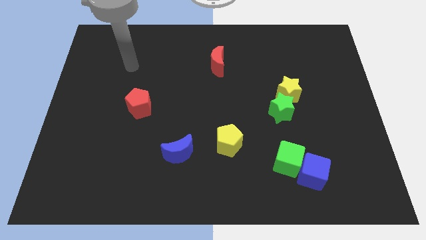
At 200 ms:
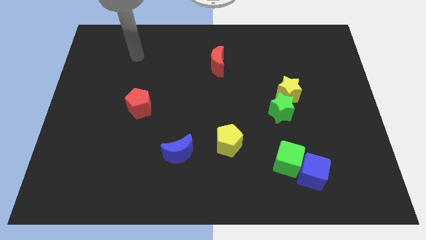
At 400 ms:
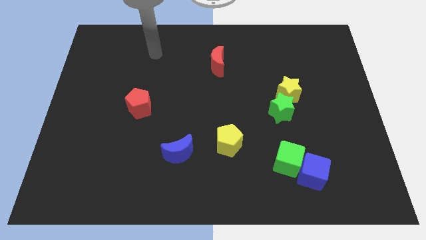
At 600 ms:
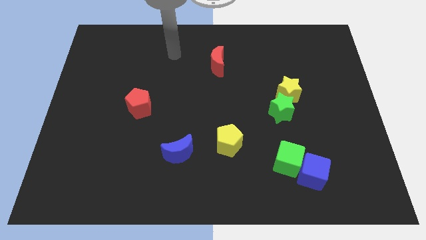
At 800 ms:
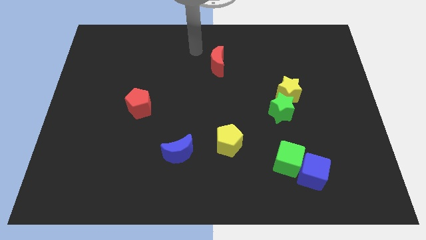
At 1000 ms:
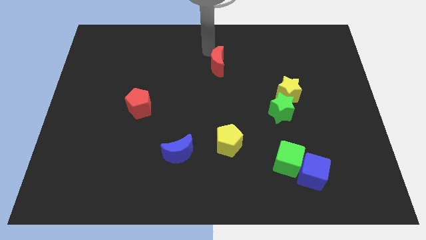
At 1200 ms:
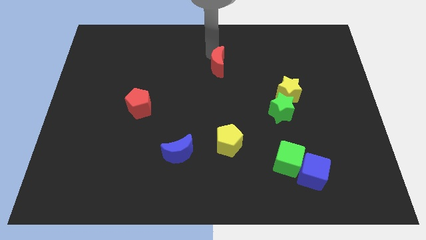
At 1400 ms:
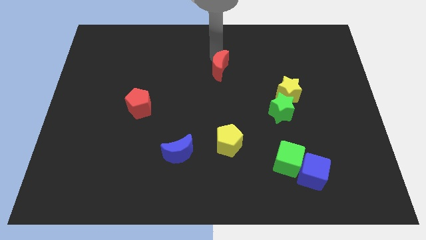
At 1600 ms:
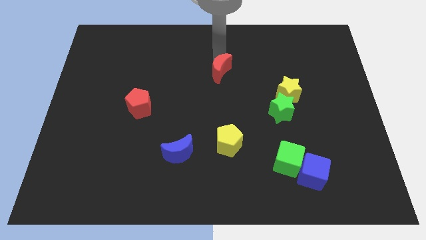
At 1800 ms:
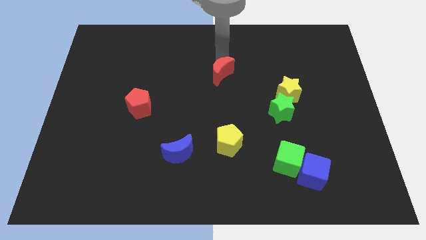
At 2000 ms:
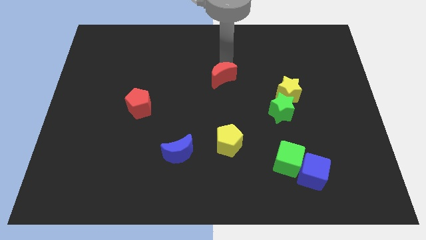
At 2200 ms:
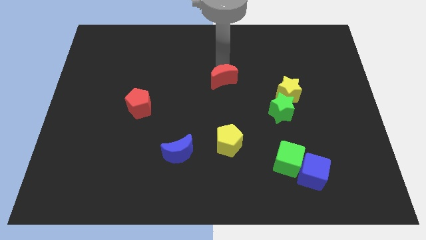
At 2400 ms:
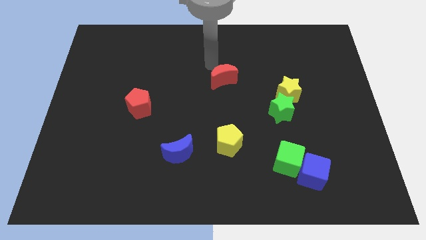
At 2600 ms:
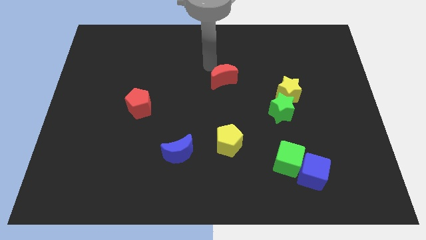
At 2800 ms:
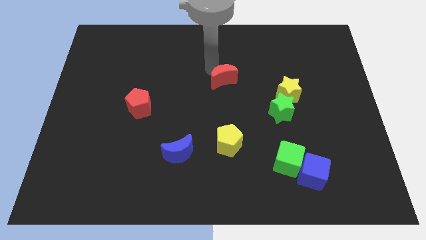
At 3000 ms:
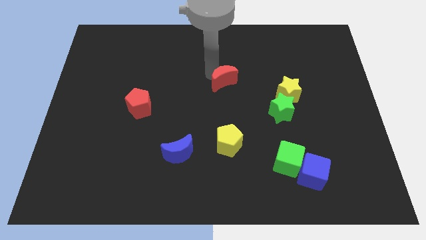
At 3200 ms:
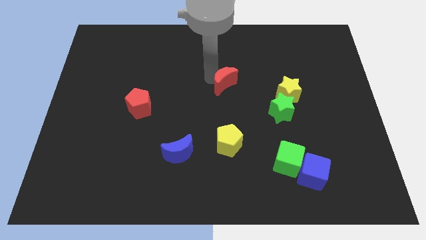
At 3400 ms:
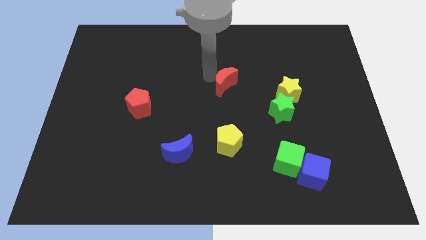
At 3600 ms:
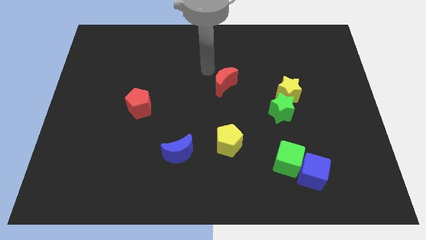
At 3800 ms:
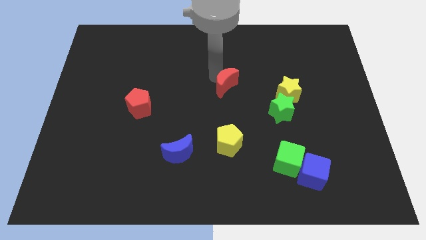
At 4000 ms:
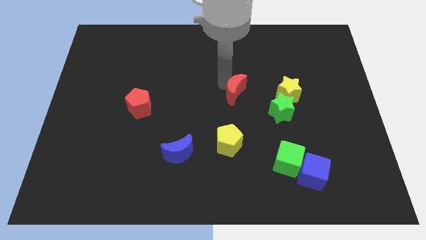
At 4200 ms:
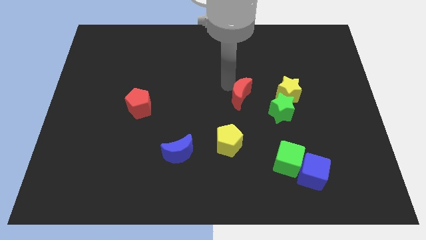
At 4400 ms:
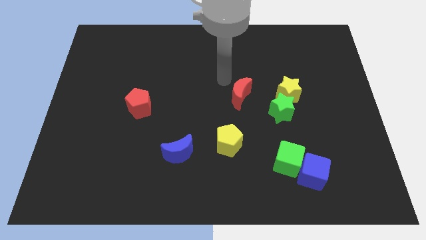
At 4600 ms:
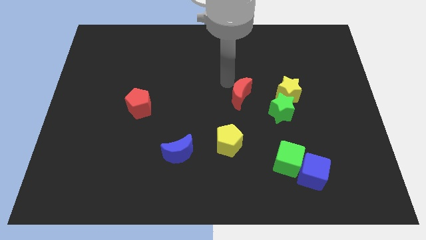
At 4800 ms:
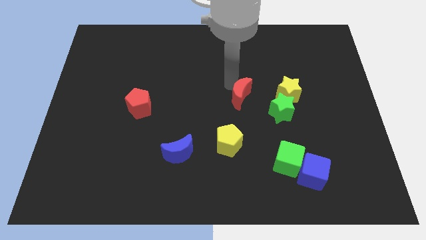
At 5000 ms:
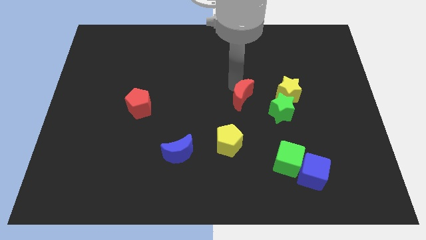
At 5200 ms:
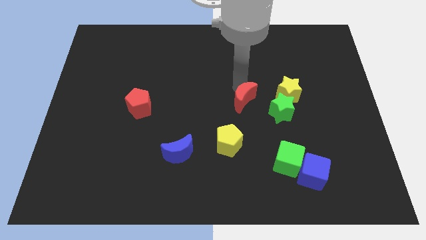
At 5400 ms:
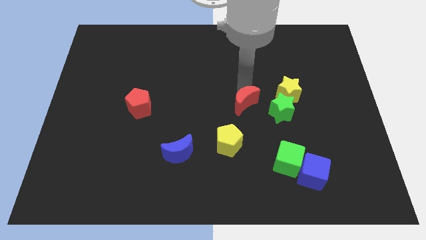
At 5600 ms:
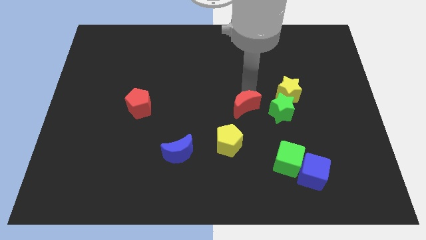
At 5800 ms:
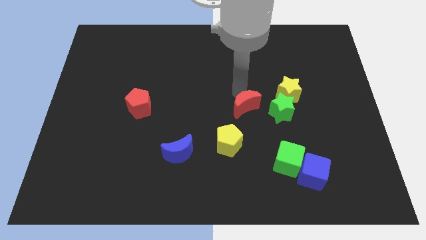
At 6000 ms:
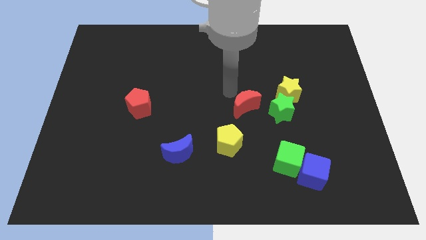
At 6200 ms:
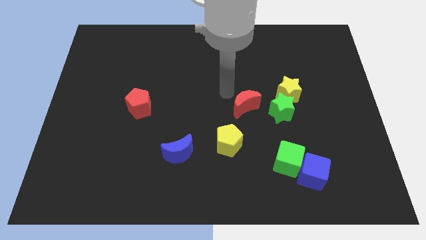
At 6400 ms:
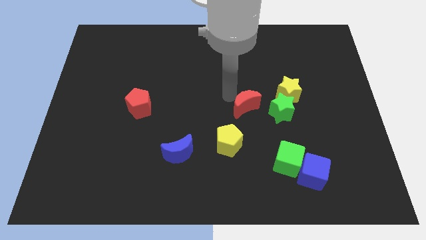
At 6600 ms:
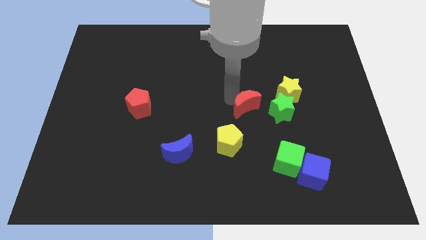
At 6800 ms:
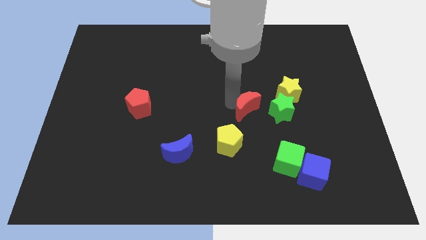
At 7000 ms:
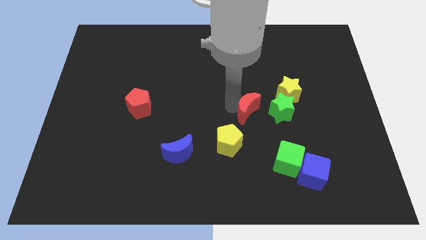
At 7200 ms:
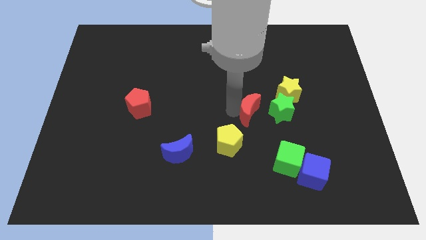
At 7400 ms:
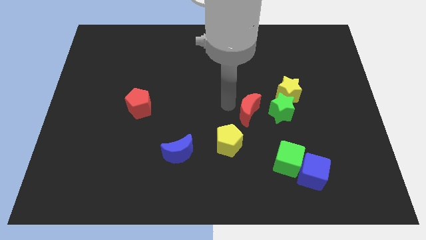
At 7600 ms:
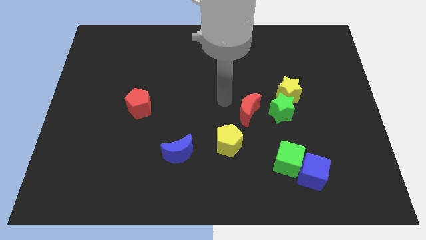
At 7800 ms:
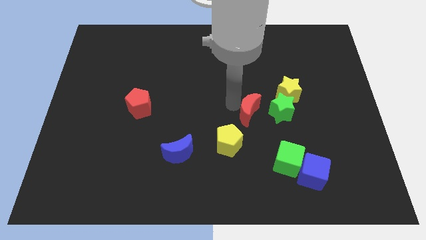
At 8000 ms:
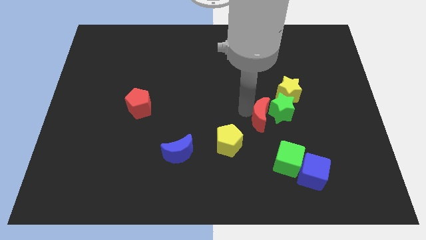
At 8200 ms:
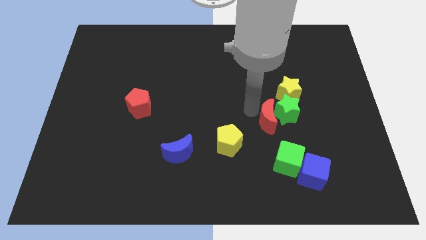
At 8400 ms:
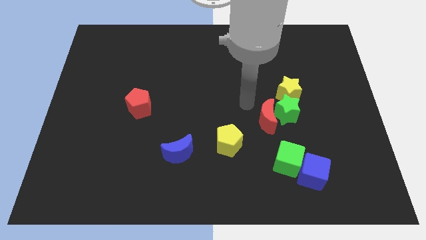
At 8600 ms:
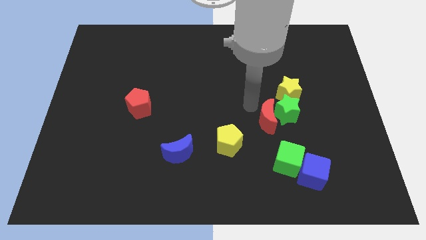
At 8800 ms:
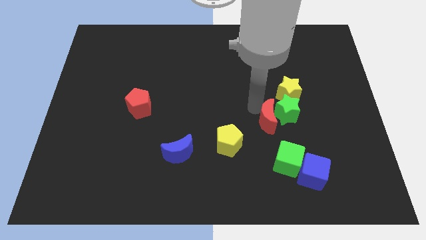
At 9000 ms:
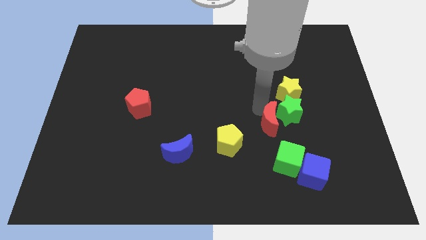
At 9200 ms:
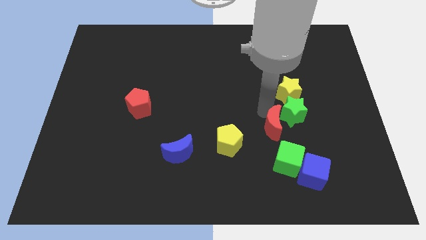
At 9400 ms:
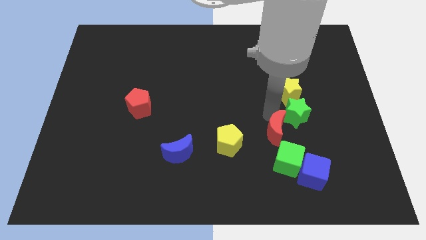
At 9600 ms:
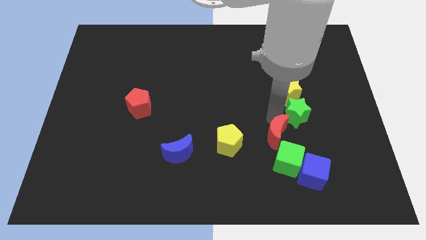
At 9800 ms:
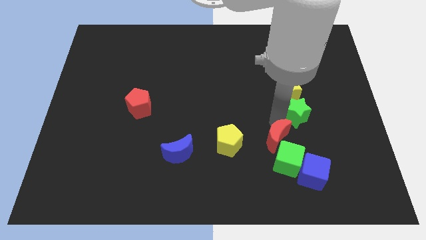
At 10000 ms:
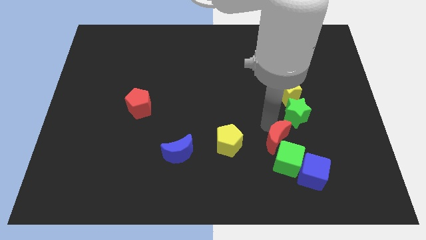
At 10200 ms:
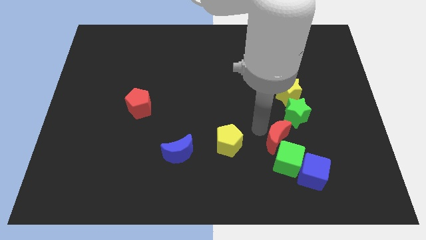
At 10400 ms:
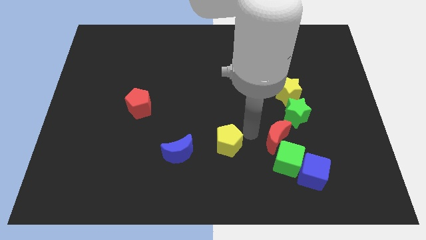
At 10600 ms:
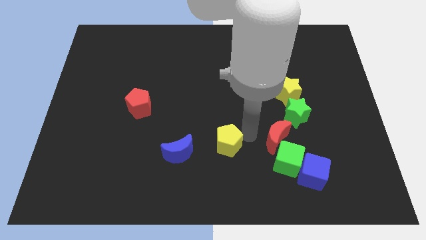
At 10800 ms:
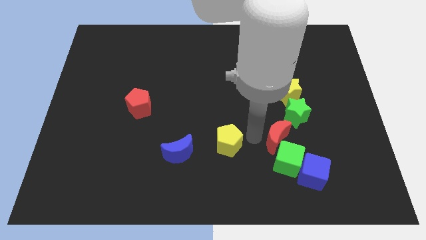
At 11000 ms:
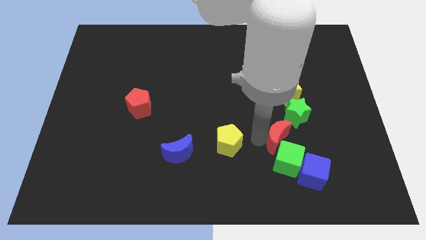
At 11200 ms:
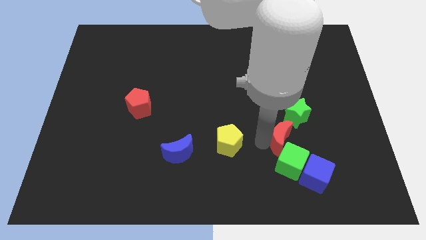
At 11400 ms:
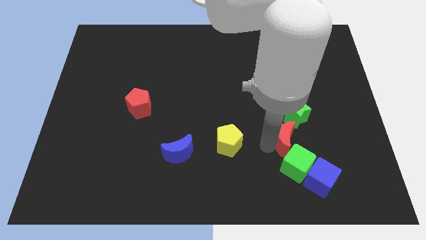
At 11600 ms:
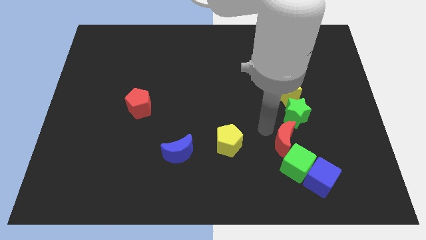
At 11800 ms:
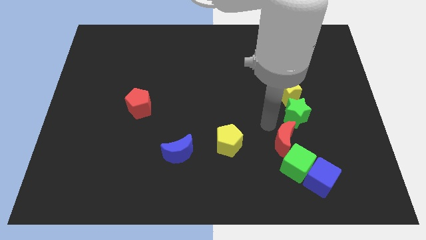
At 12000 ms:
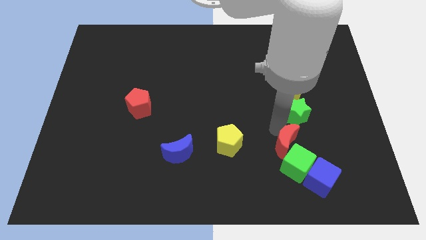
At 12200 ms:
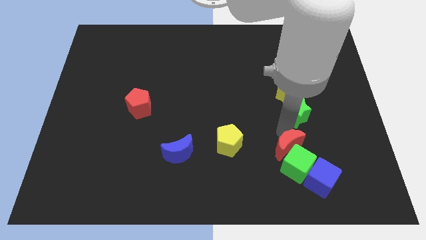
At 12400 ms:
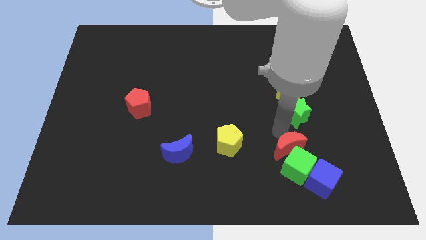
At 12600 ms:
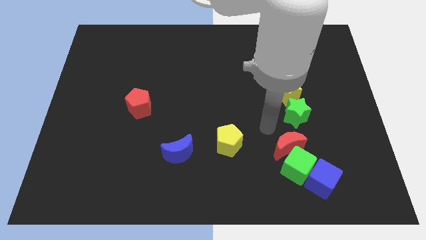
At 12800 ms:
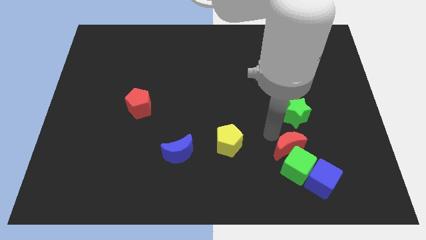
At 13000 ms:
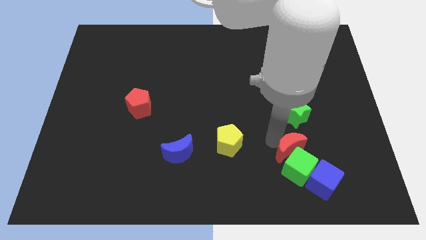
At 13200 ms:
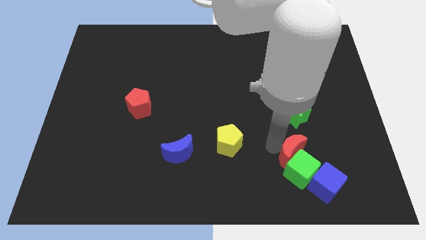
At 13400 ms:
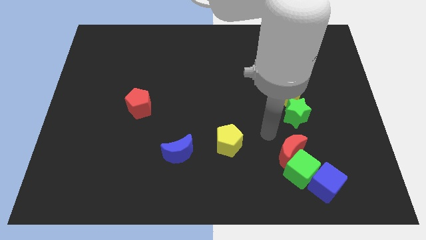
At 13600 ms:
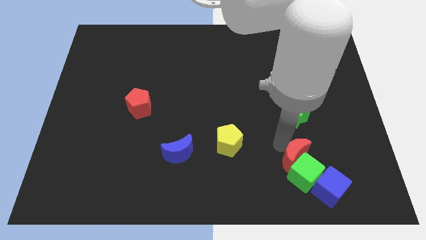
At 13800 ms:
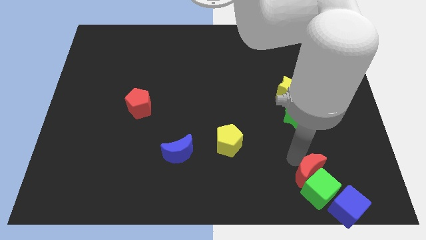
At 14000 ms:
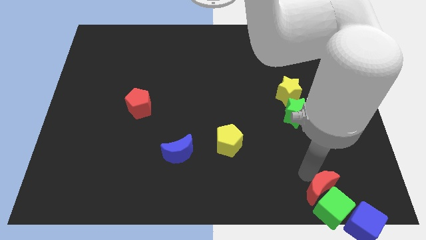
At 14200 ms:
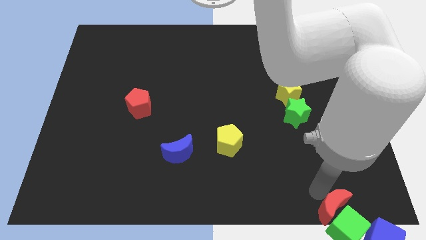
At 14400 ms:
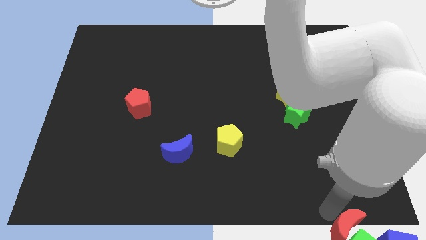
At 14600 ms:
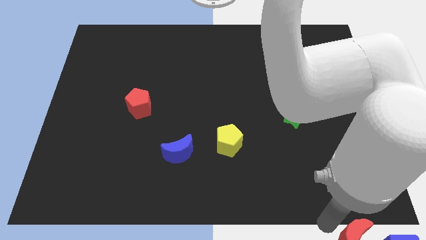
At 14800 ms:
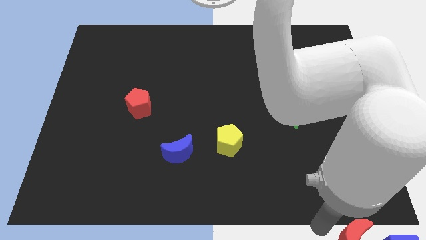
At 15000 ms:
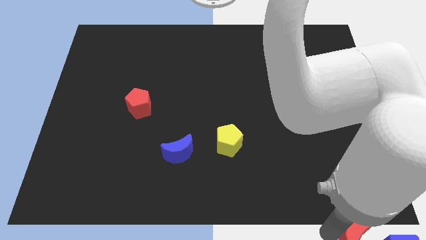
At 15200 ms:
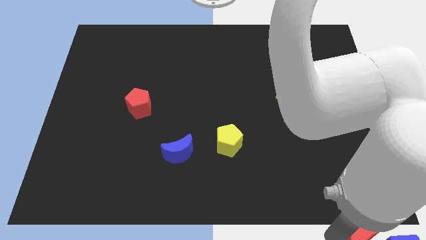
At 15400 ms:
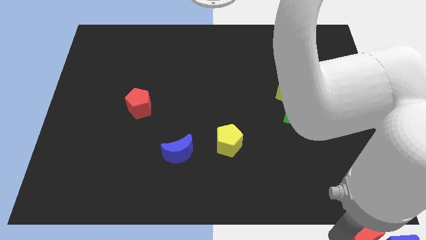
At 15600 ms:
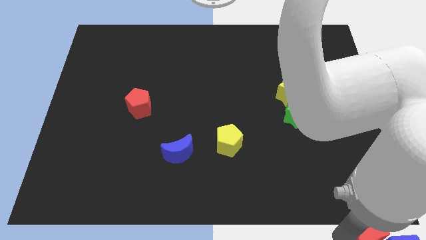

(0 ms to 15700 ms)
put the red moon next to the blue cube
